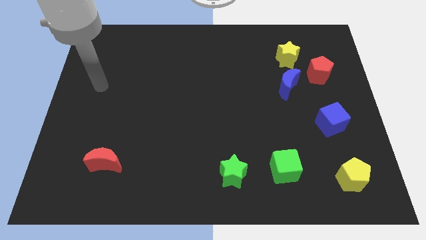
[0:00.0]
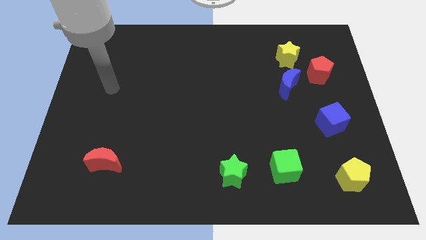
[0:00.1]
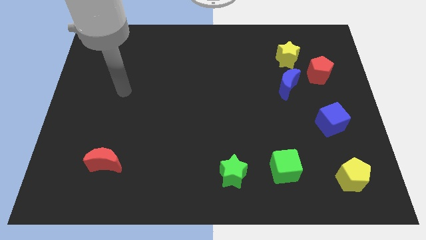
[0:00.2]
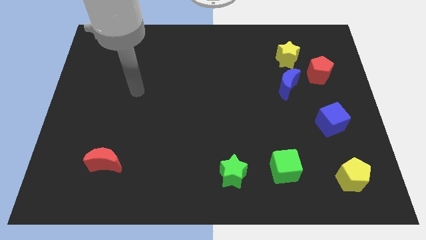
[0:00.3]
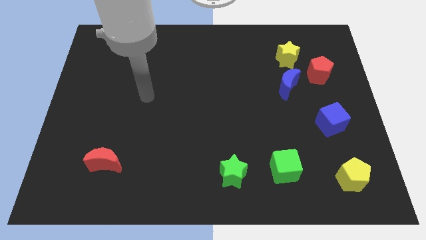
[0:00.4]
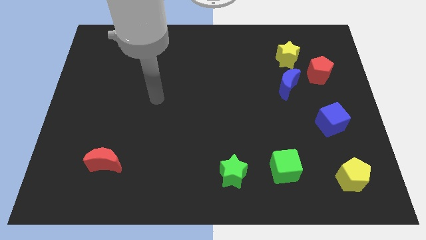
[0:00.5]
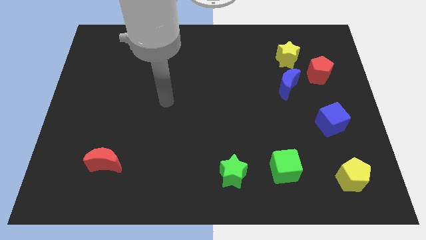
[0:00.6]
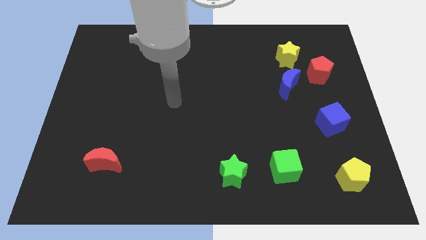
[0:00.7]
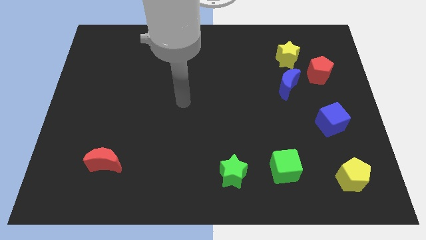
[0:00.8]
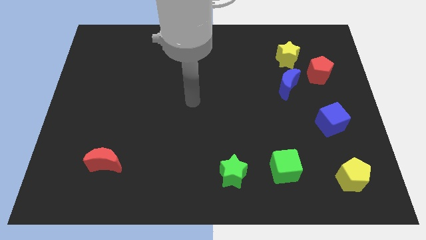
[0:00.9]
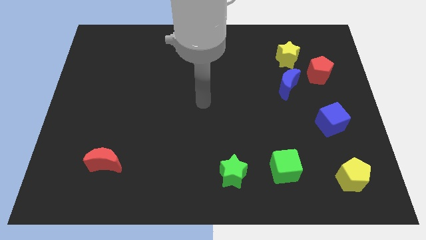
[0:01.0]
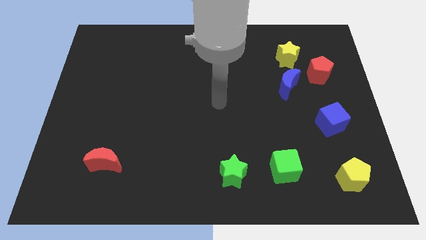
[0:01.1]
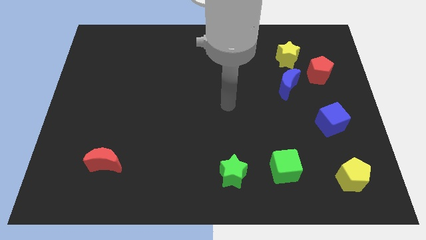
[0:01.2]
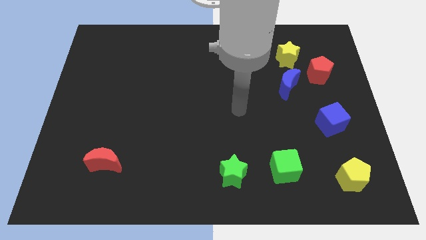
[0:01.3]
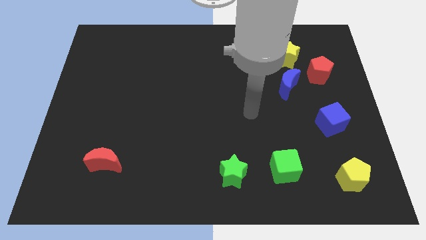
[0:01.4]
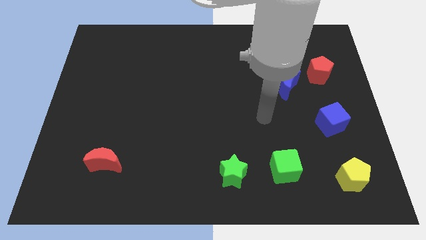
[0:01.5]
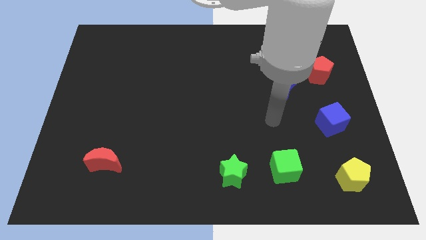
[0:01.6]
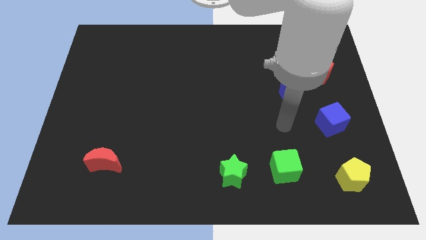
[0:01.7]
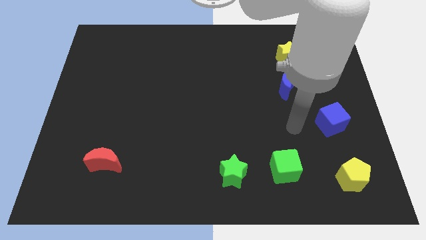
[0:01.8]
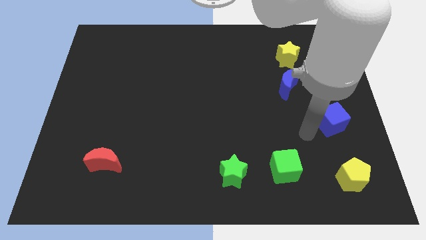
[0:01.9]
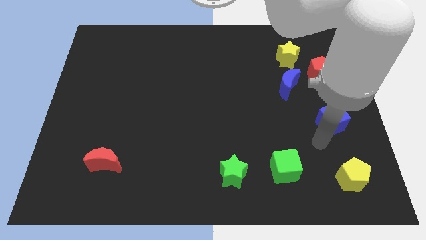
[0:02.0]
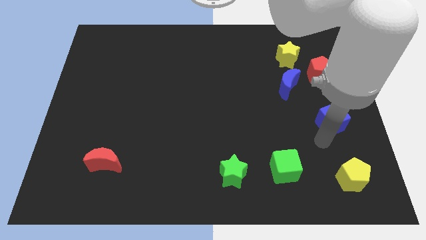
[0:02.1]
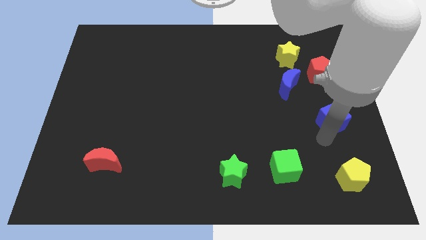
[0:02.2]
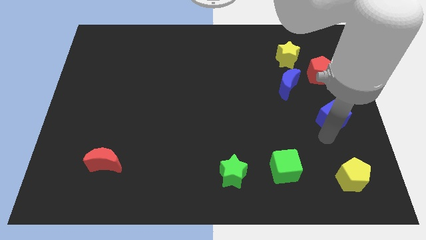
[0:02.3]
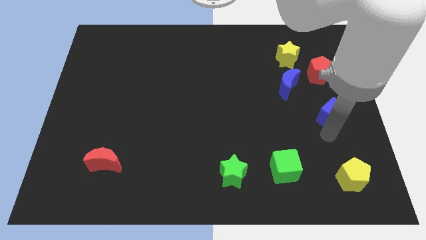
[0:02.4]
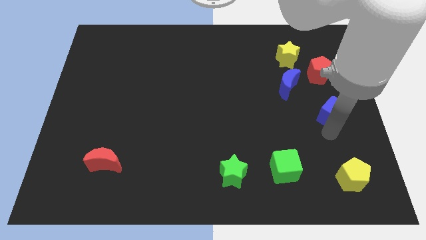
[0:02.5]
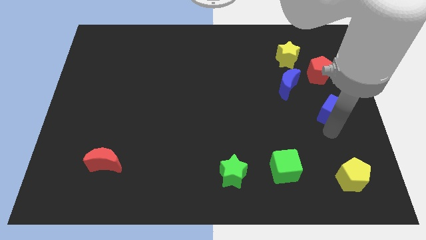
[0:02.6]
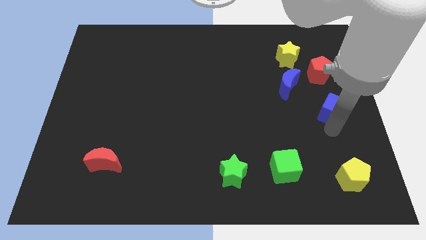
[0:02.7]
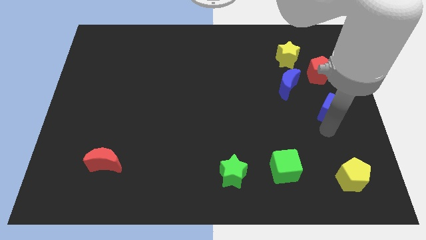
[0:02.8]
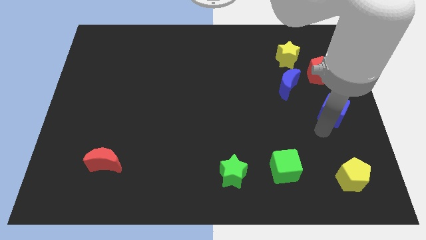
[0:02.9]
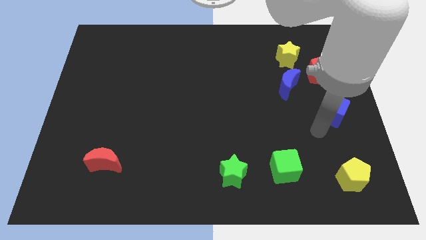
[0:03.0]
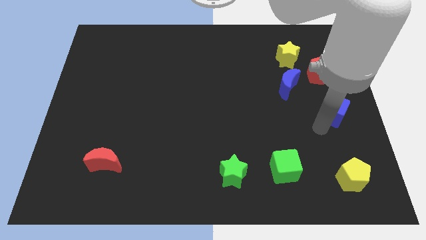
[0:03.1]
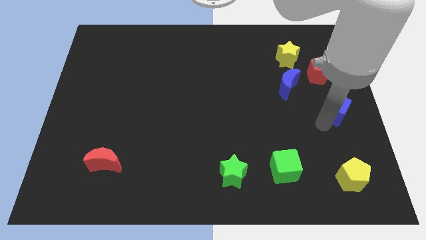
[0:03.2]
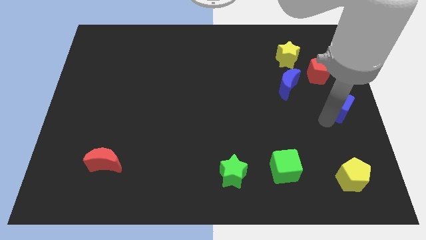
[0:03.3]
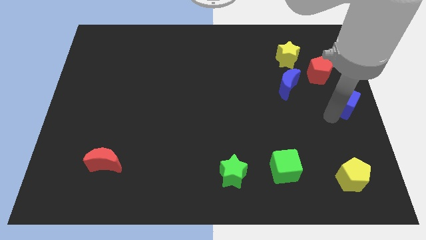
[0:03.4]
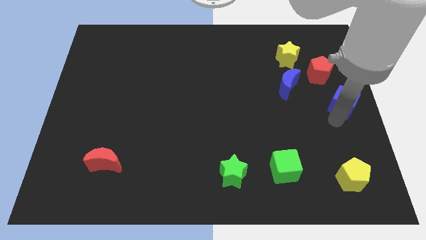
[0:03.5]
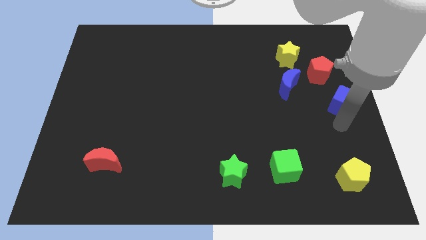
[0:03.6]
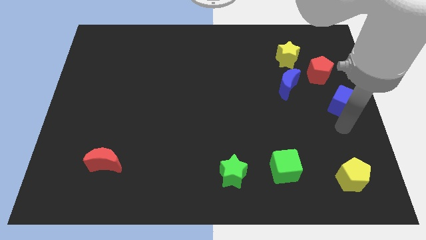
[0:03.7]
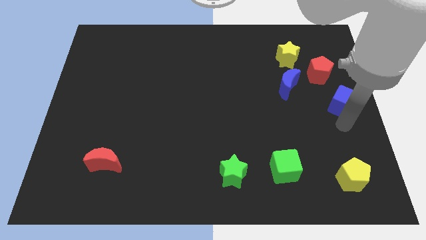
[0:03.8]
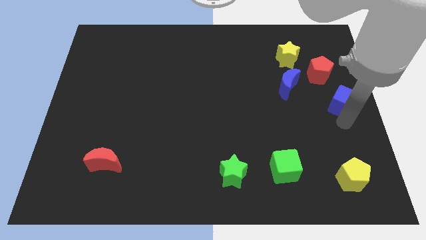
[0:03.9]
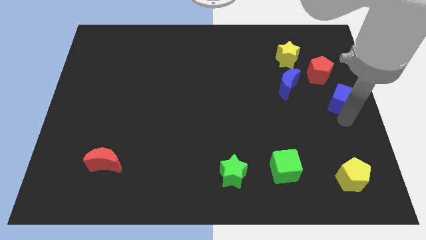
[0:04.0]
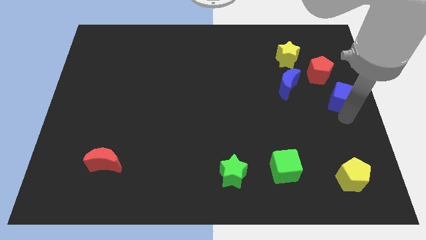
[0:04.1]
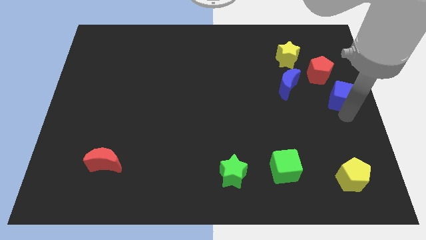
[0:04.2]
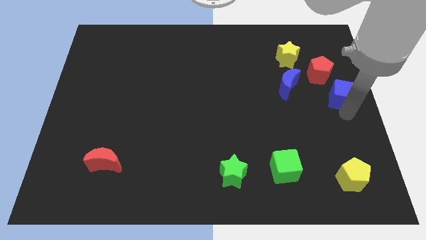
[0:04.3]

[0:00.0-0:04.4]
push the blue cube a little bit upwards

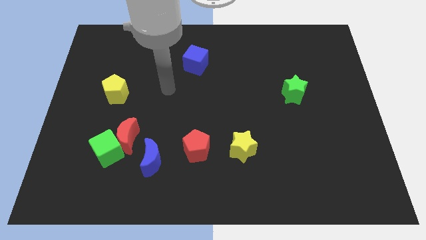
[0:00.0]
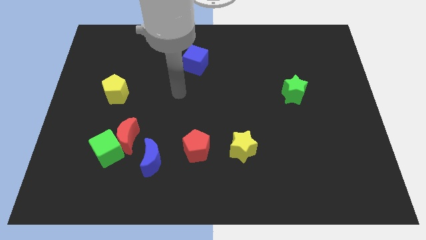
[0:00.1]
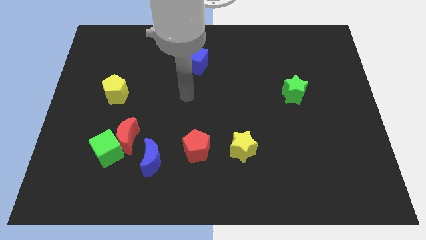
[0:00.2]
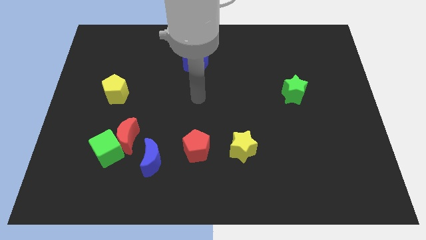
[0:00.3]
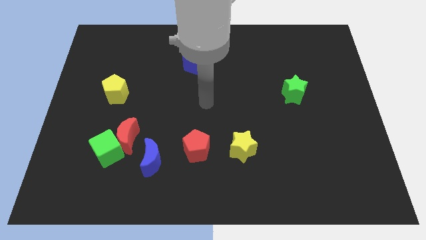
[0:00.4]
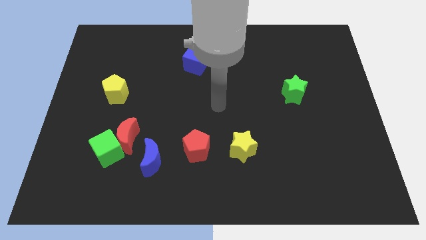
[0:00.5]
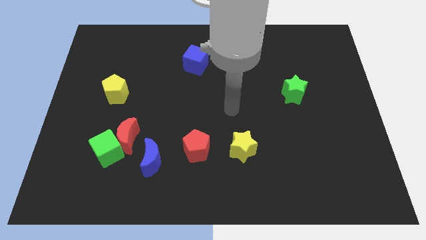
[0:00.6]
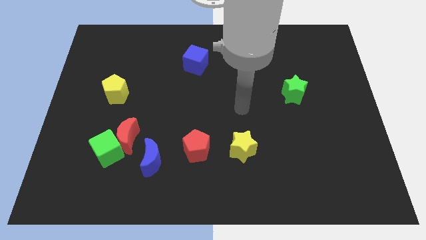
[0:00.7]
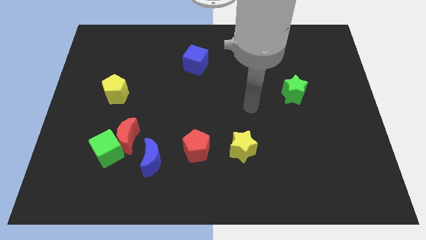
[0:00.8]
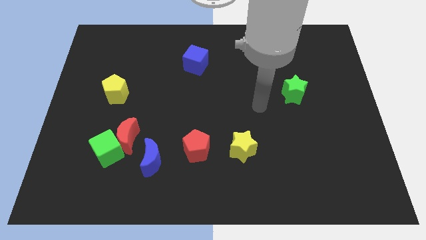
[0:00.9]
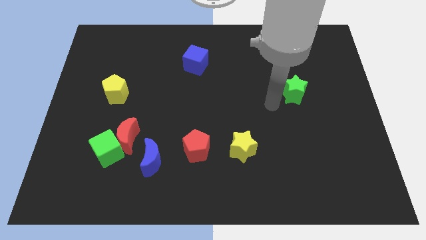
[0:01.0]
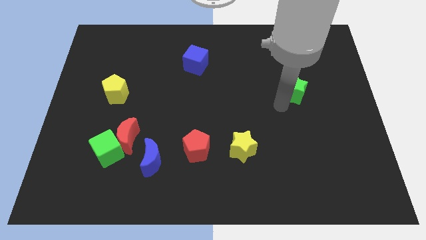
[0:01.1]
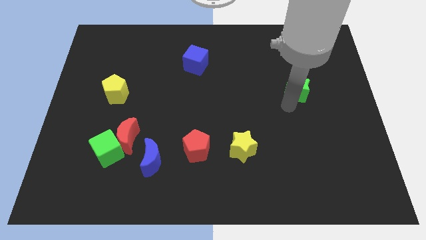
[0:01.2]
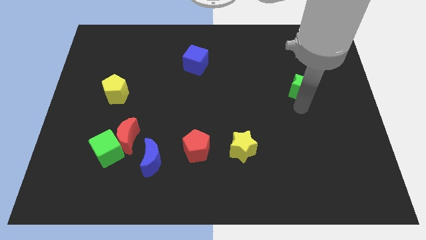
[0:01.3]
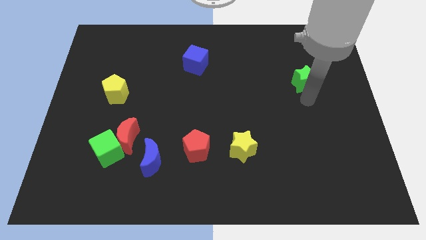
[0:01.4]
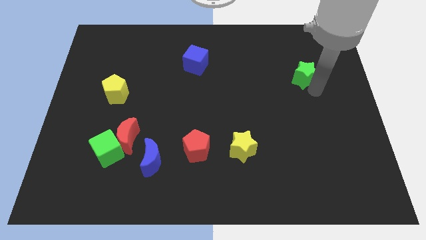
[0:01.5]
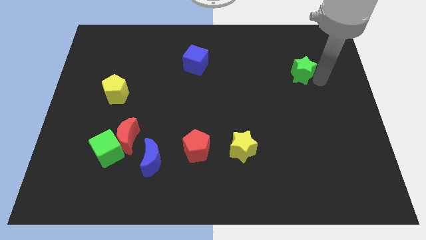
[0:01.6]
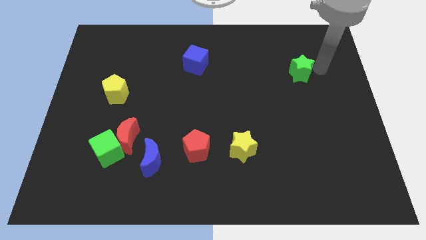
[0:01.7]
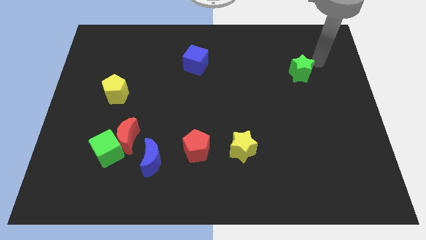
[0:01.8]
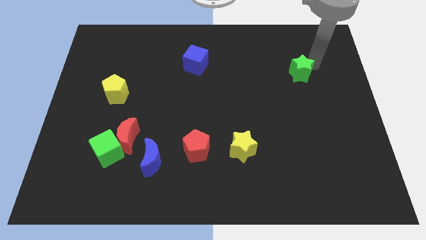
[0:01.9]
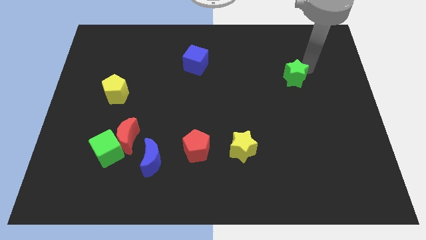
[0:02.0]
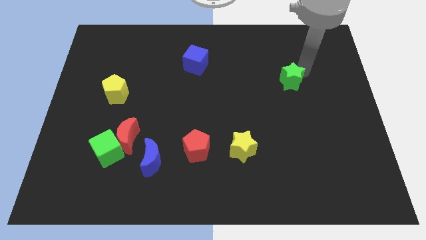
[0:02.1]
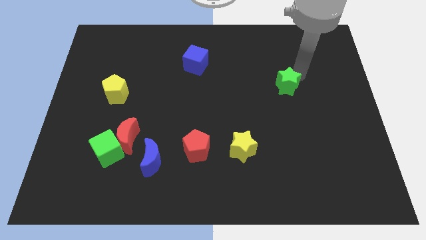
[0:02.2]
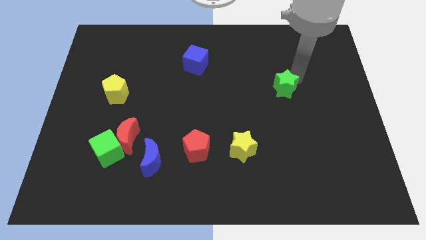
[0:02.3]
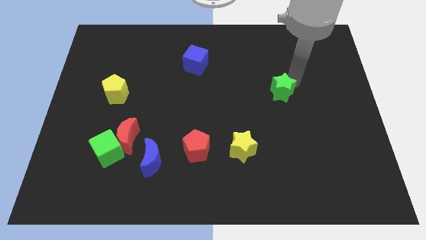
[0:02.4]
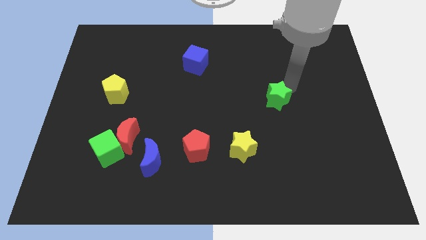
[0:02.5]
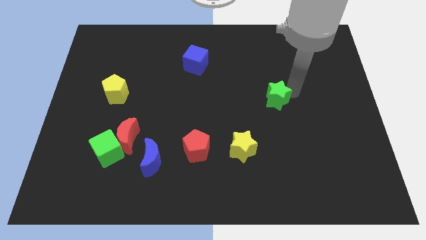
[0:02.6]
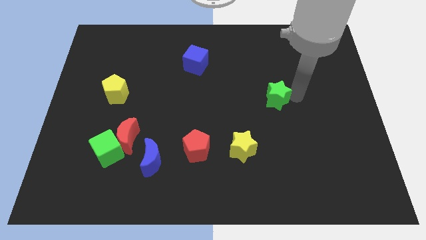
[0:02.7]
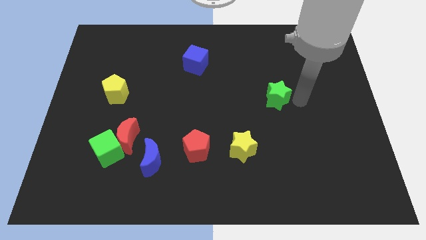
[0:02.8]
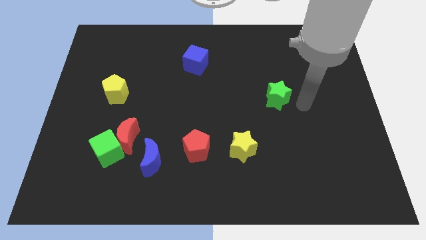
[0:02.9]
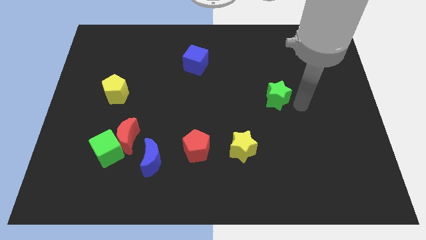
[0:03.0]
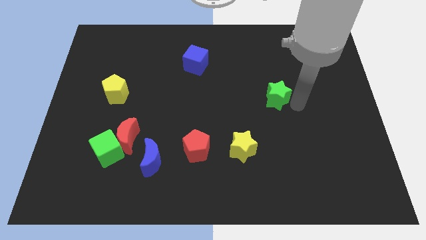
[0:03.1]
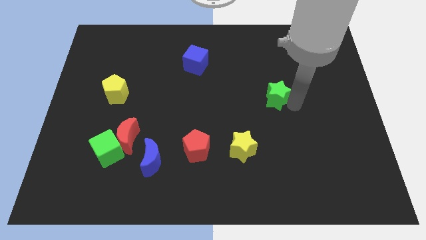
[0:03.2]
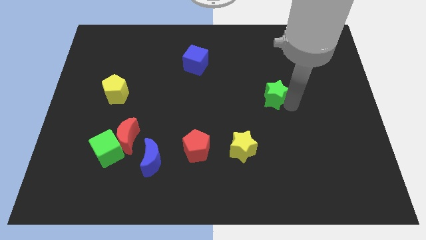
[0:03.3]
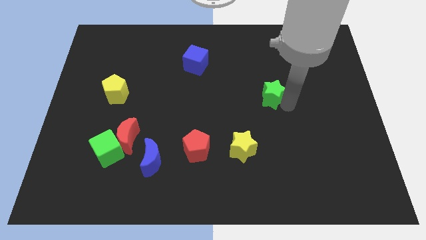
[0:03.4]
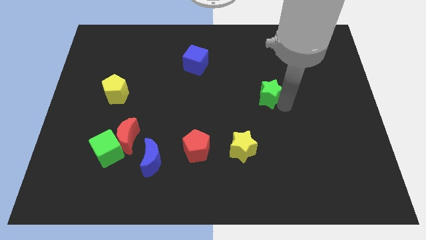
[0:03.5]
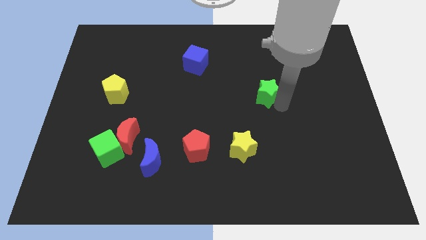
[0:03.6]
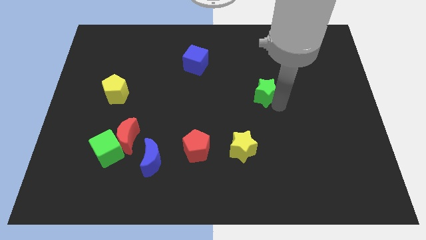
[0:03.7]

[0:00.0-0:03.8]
move the green star a little bit left
